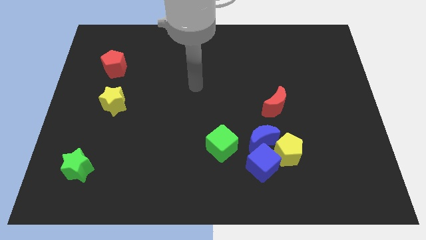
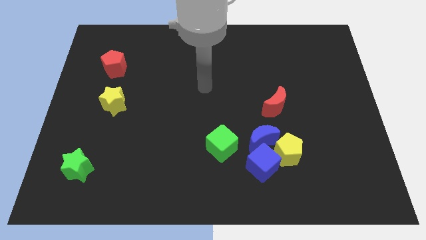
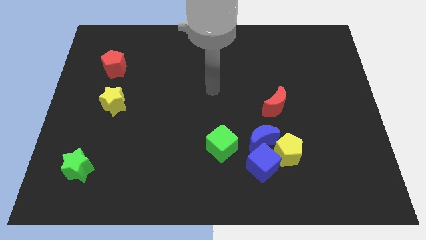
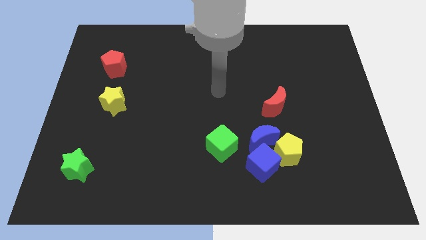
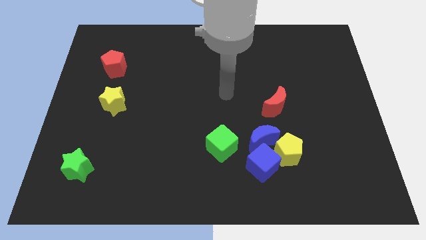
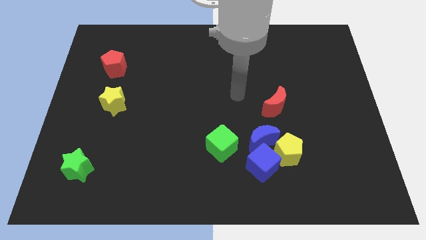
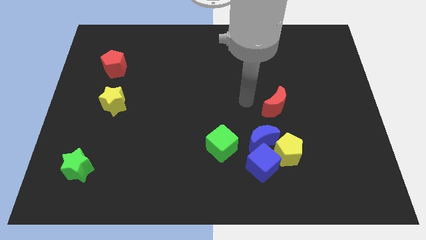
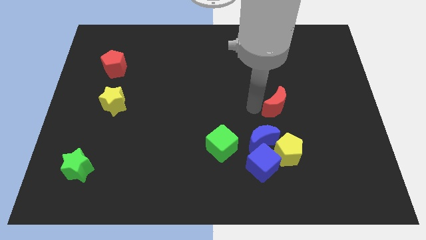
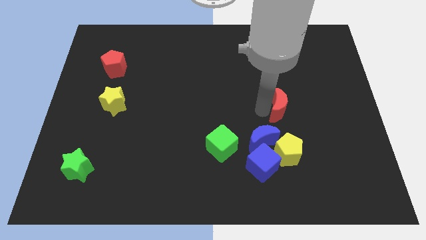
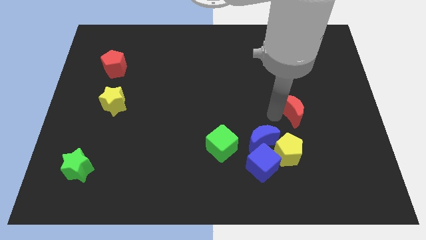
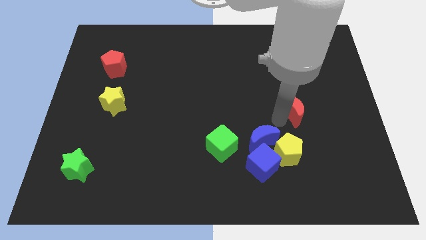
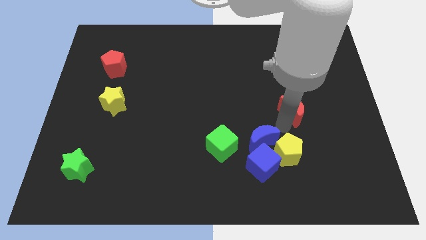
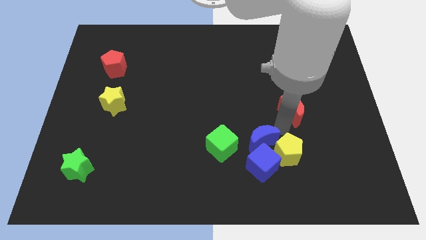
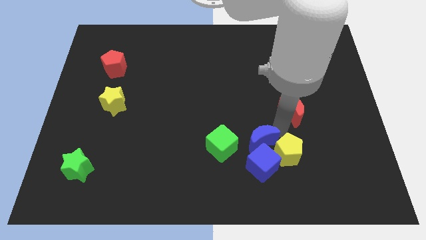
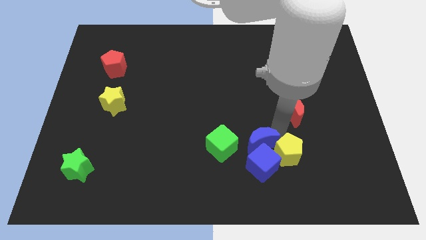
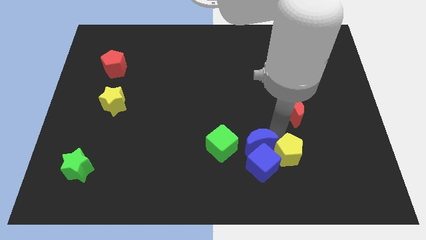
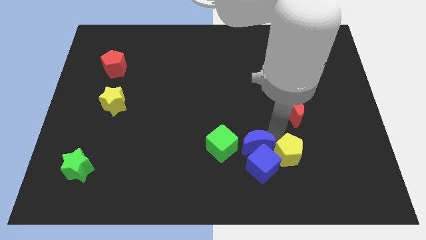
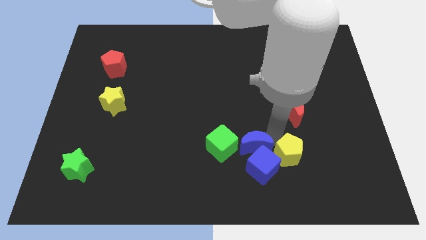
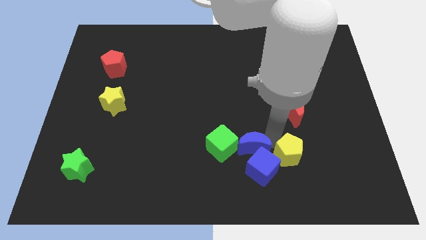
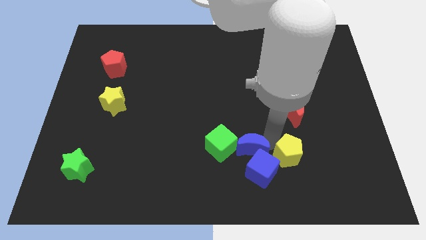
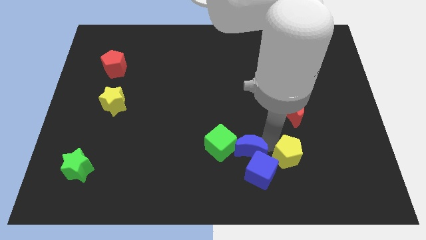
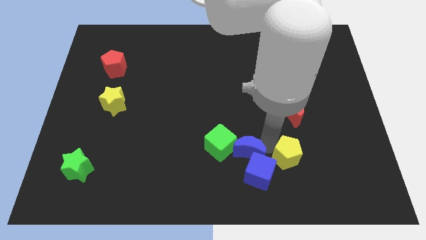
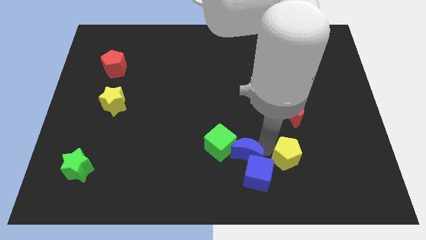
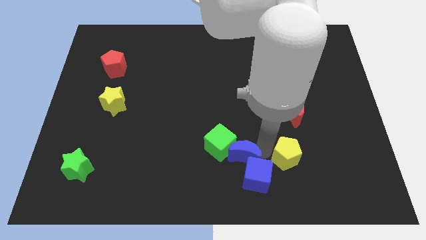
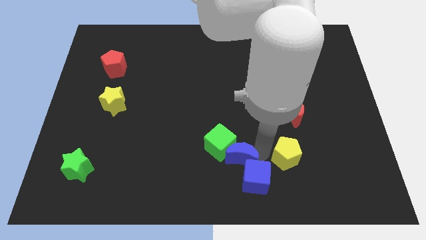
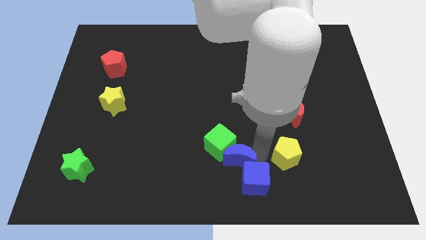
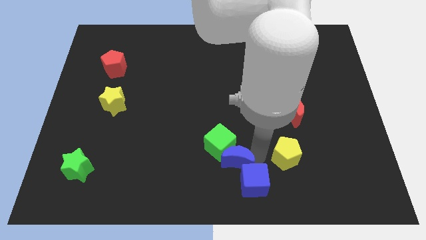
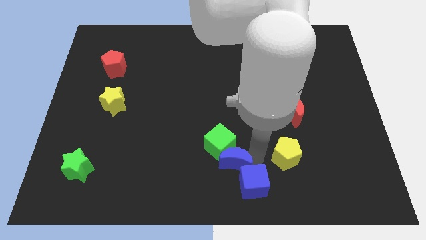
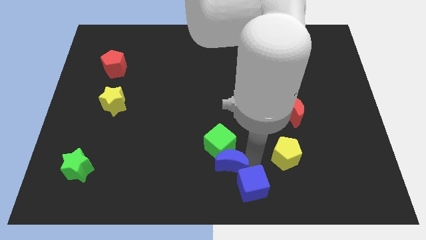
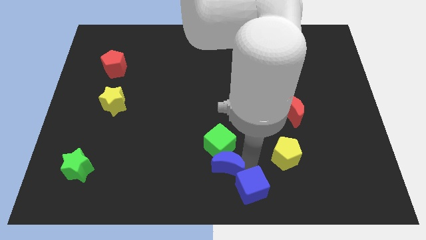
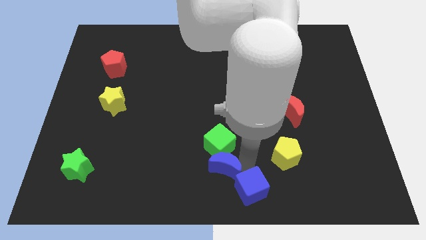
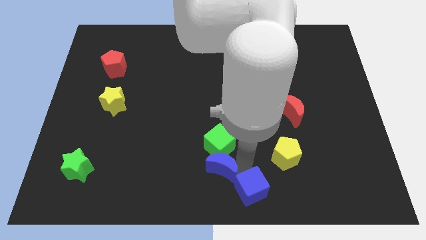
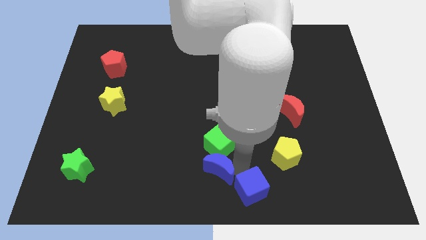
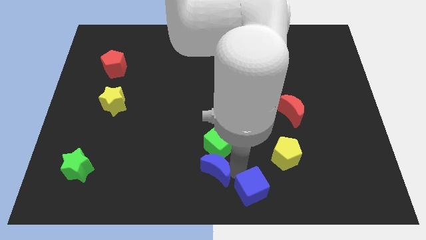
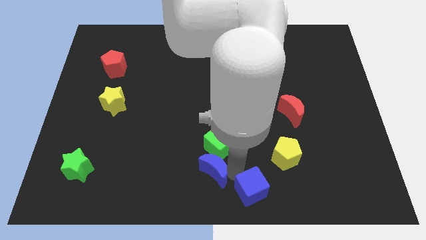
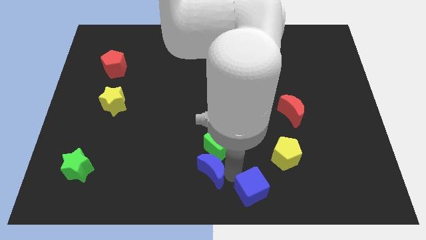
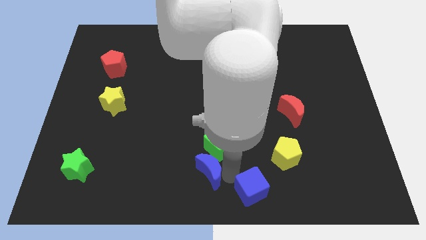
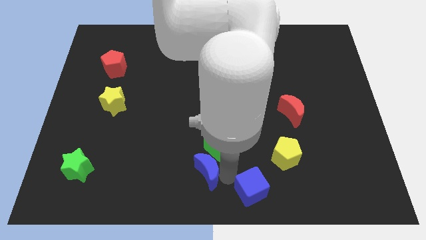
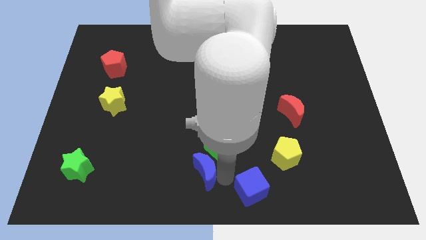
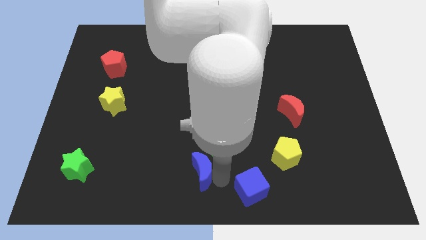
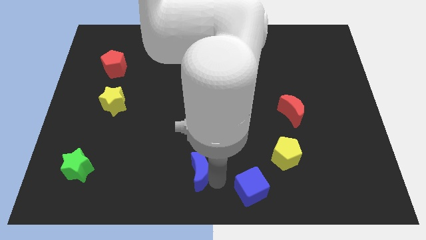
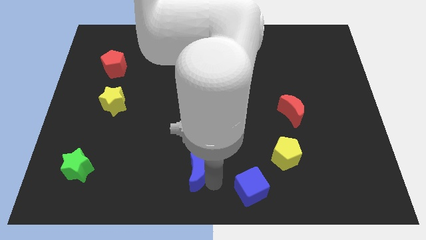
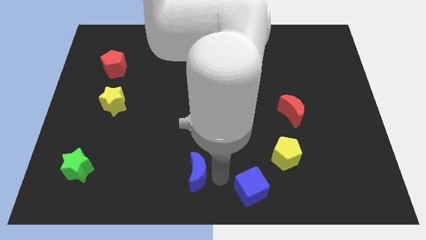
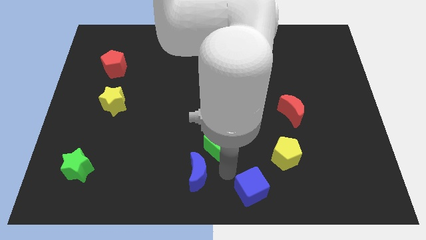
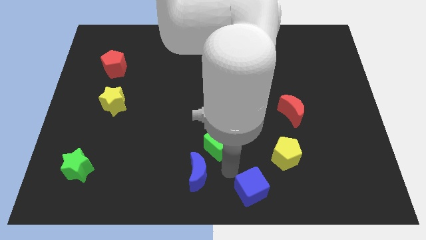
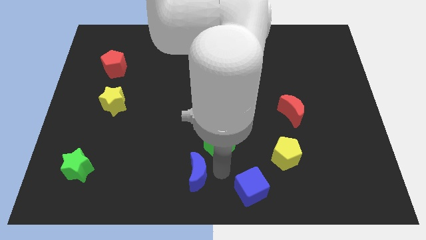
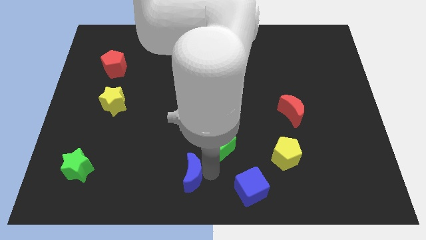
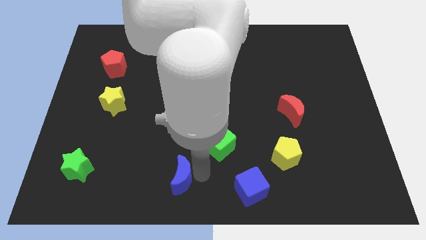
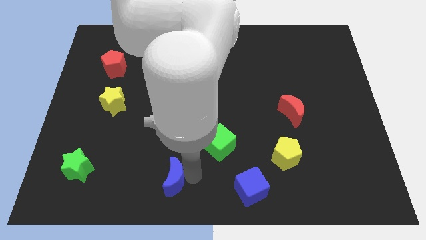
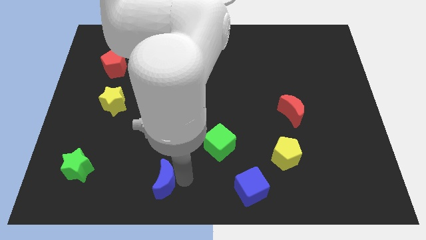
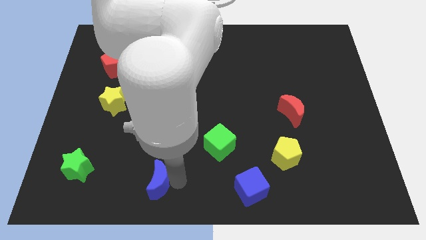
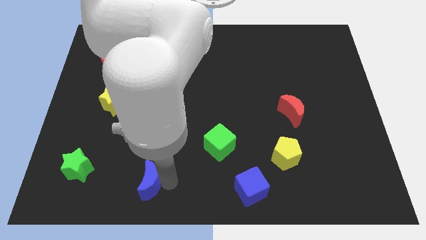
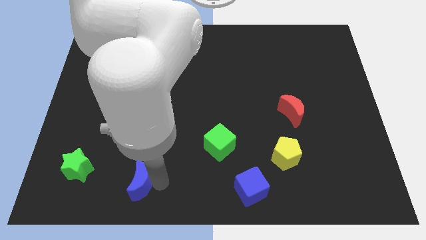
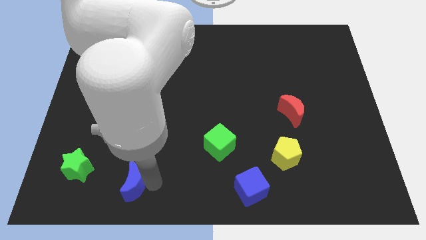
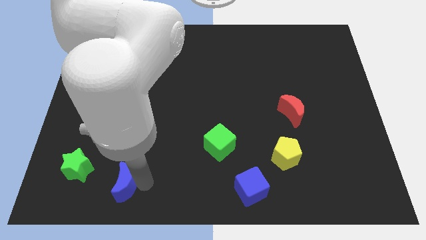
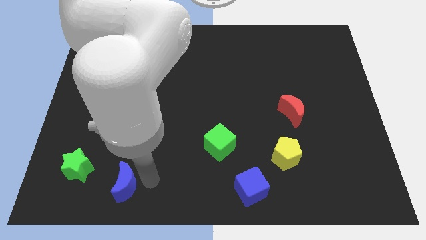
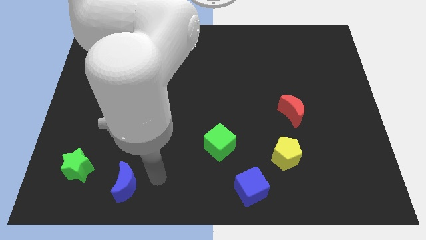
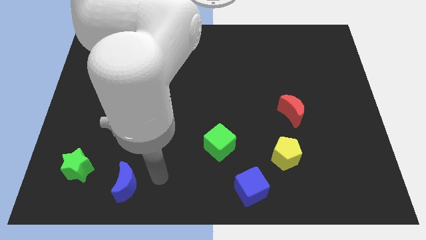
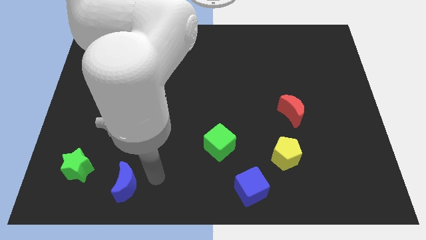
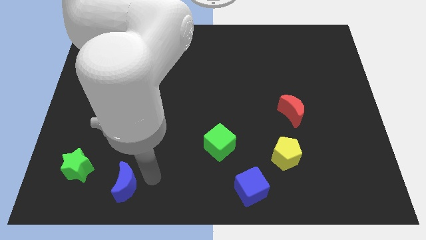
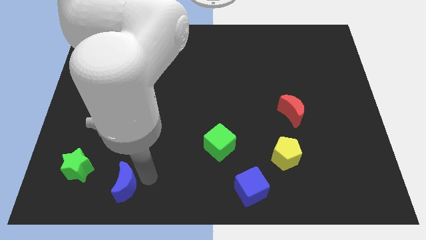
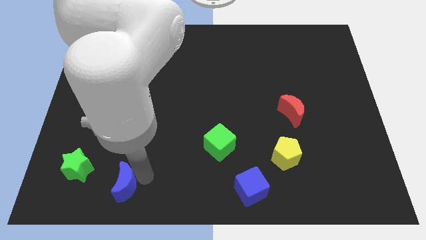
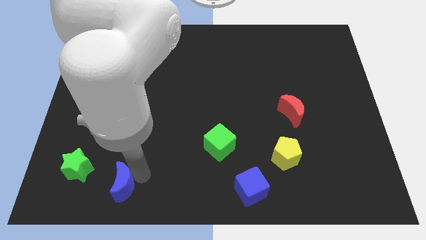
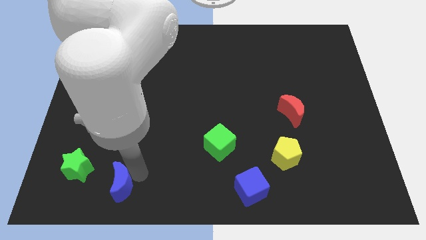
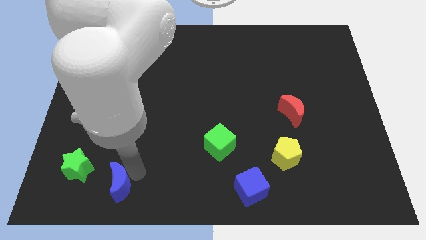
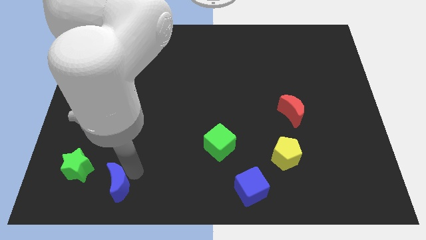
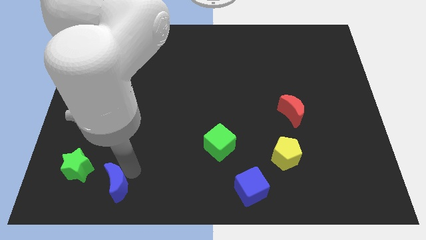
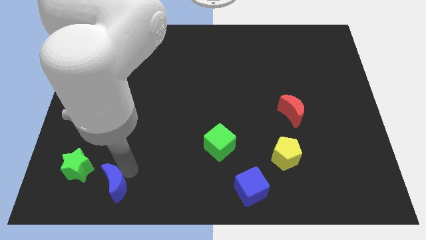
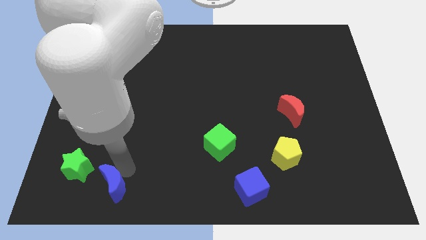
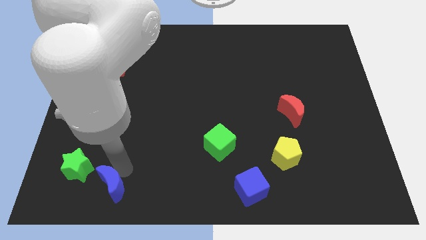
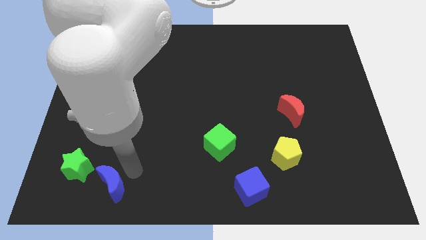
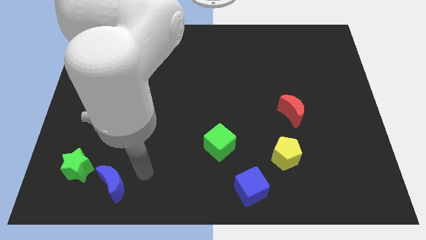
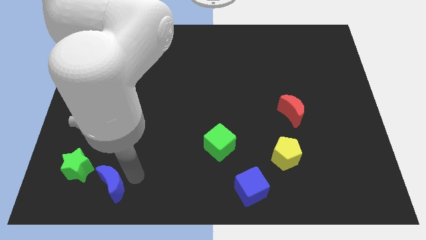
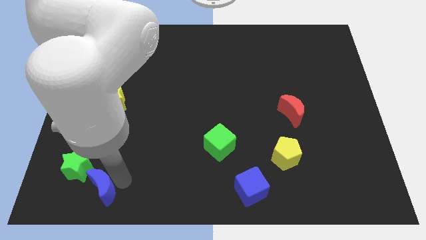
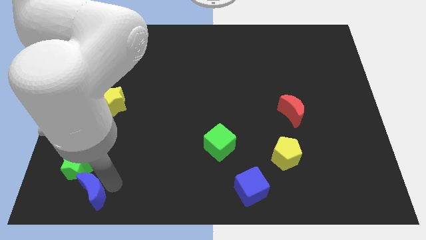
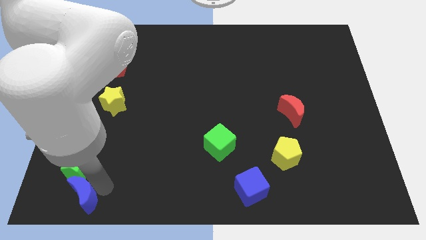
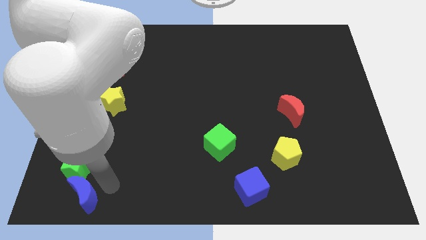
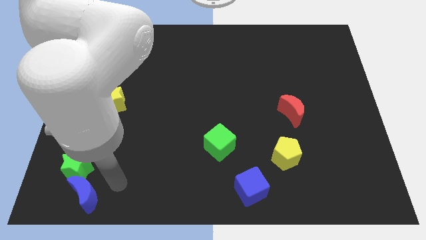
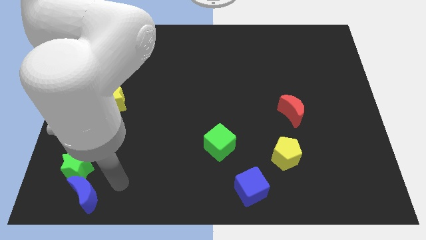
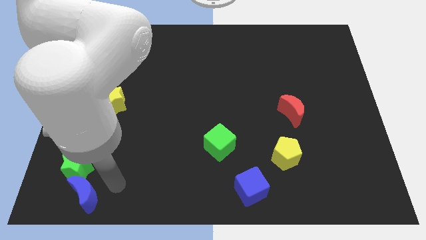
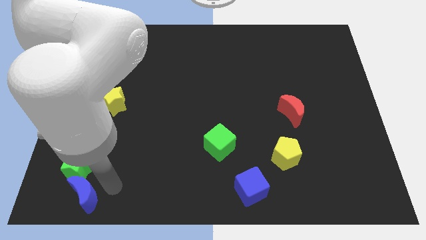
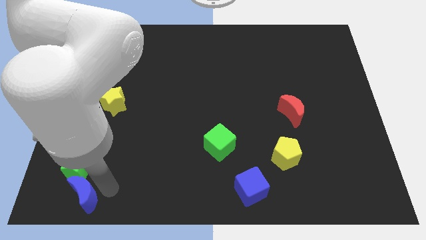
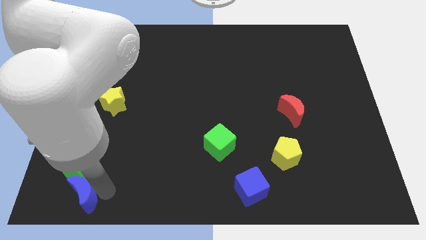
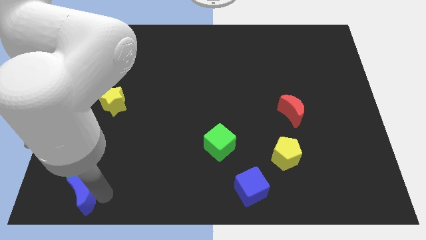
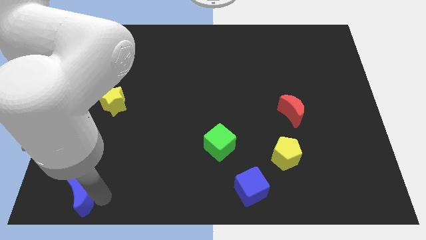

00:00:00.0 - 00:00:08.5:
push the blue moon to the bottom left corner
